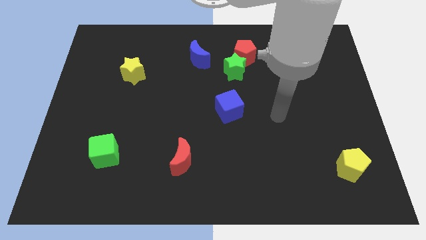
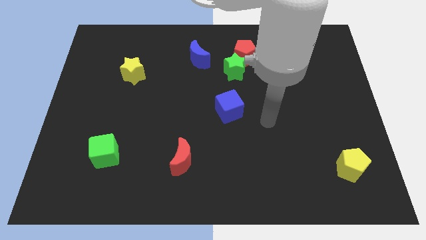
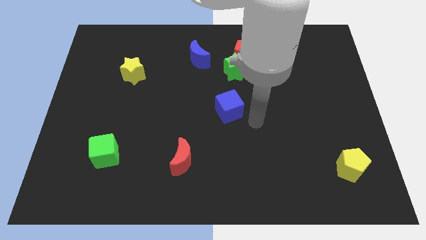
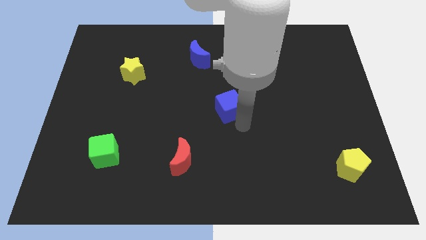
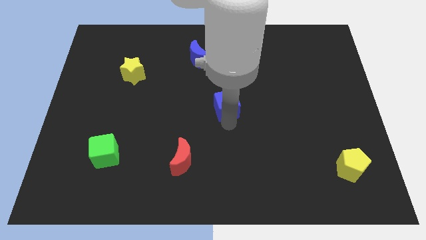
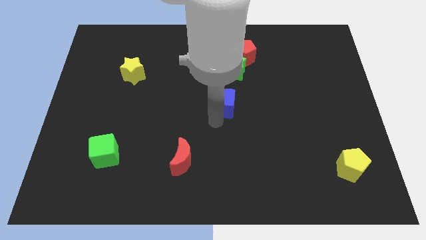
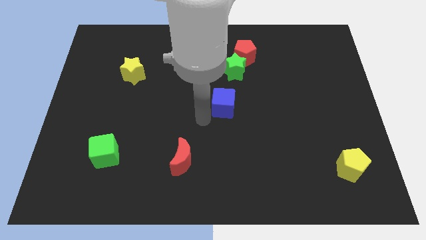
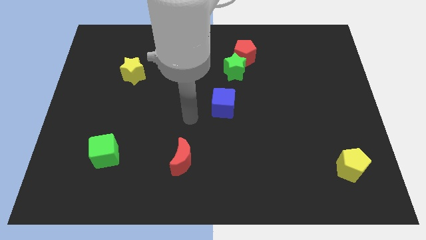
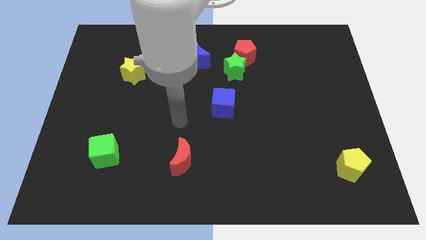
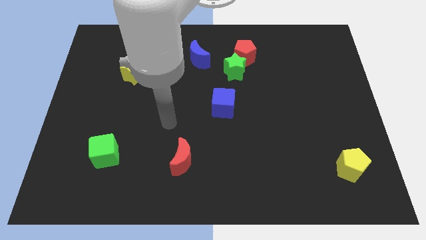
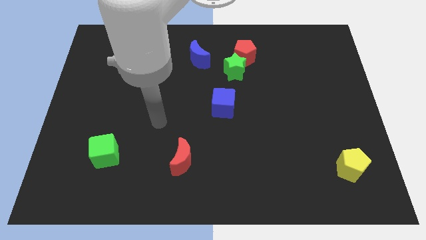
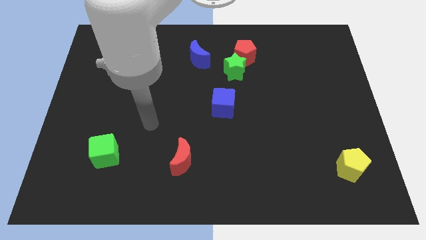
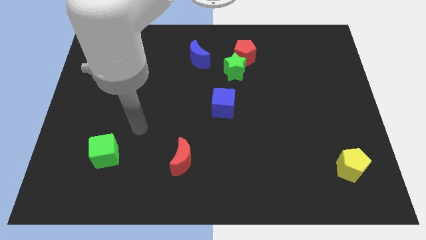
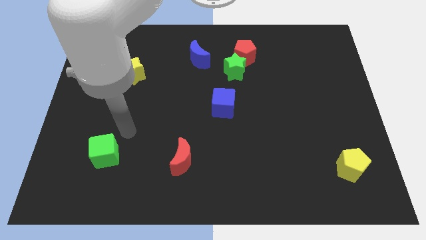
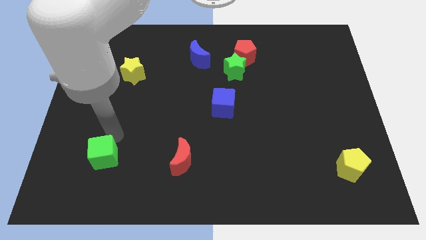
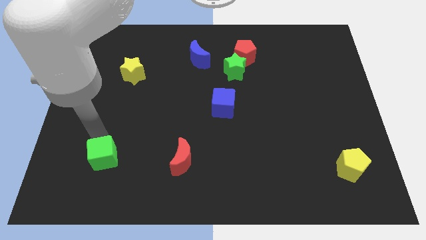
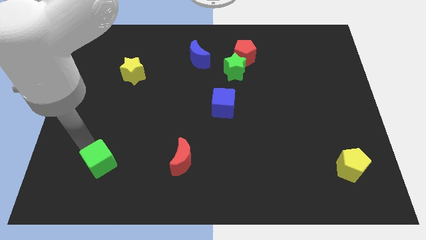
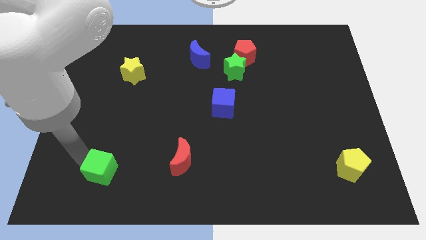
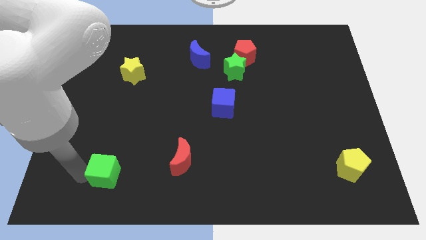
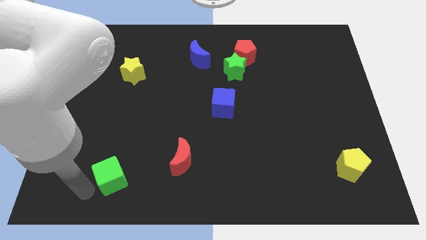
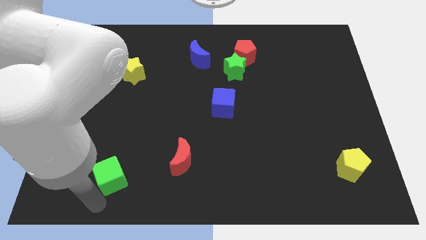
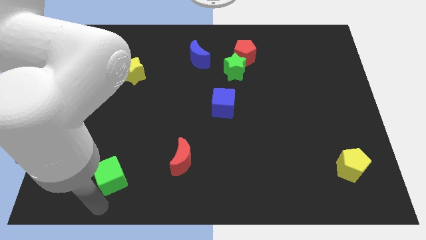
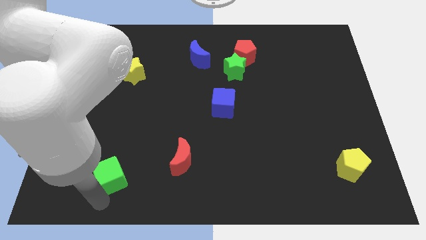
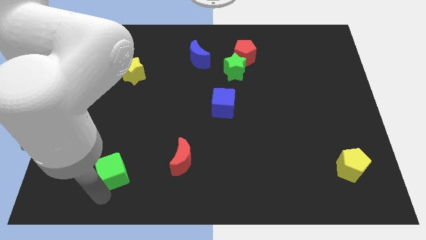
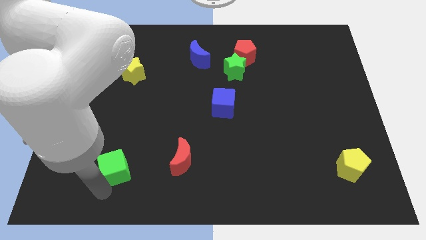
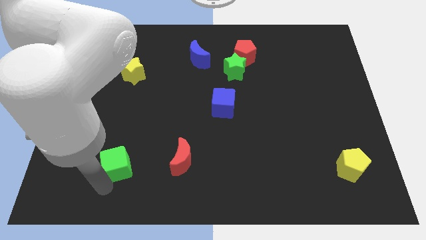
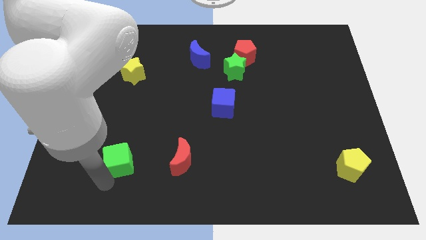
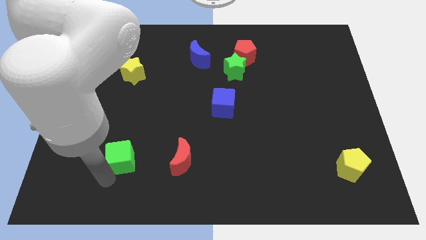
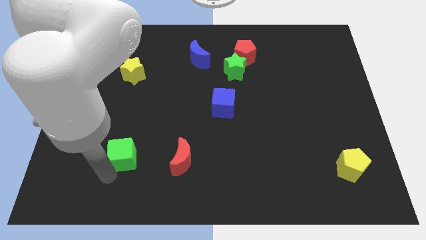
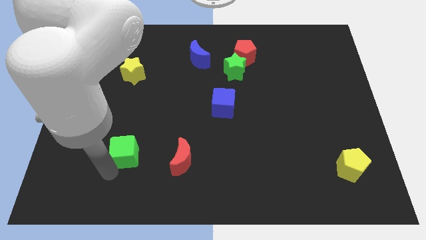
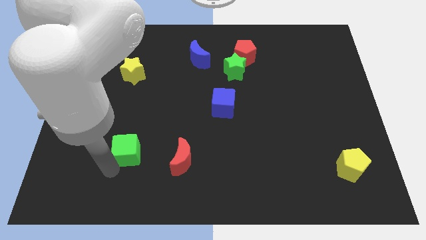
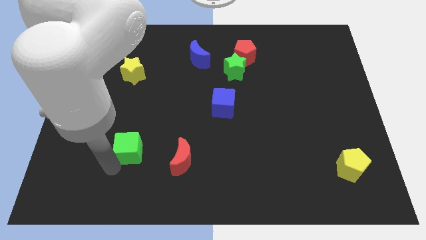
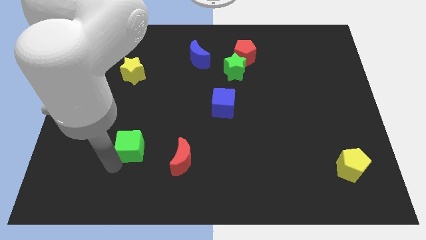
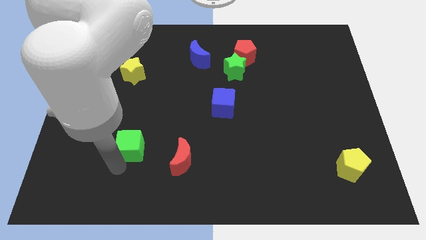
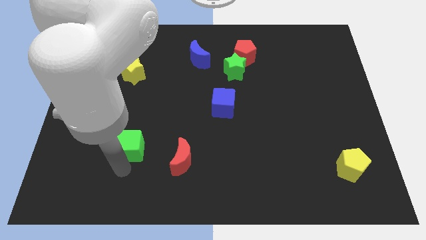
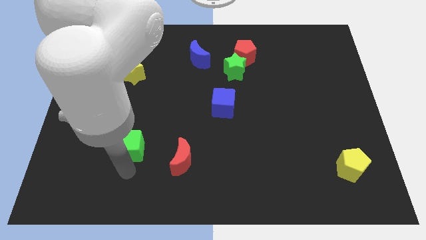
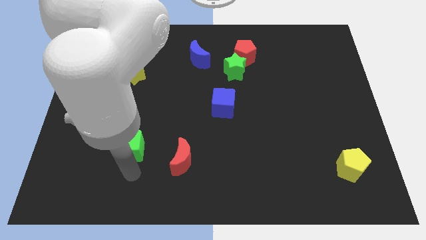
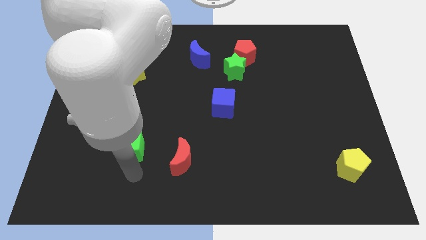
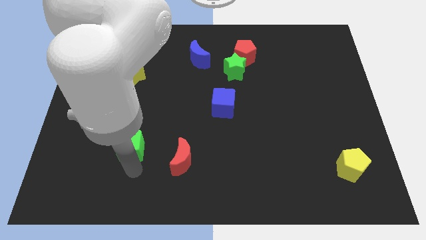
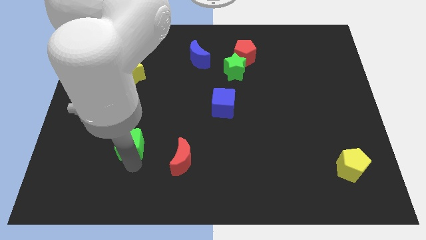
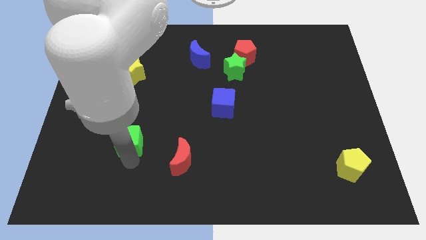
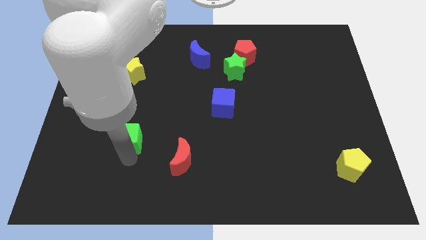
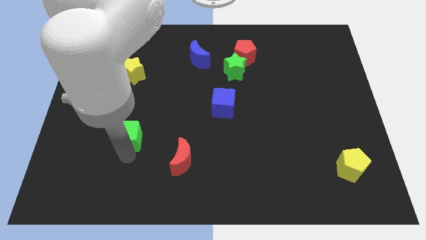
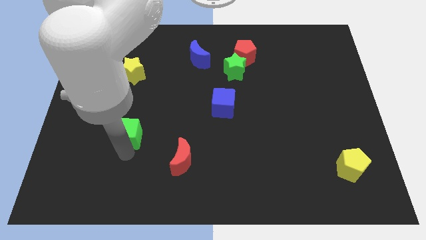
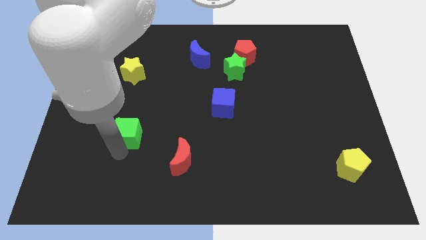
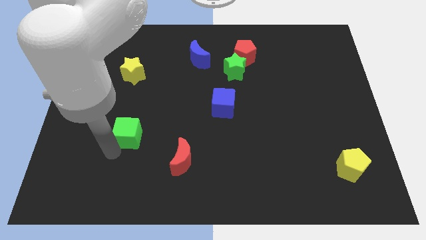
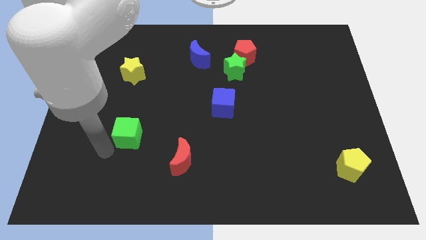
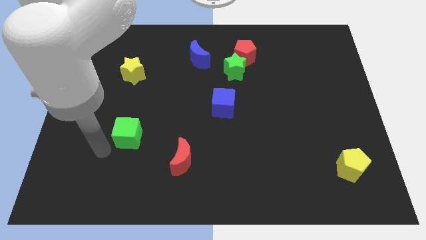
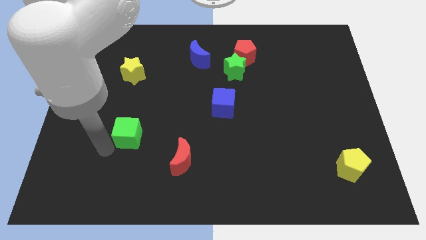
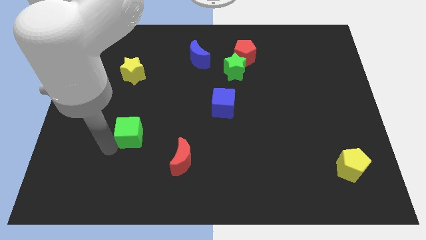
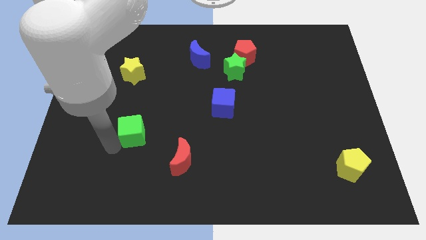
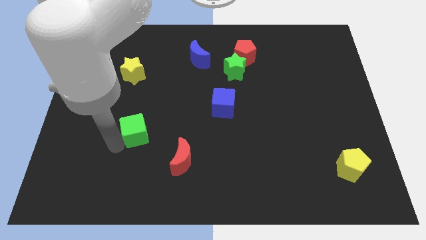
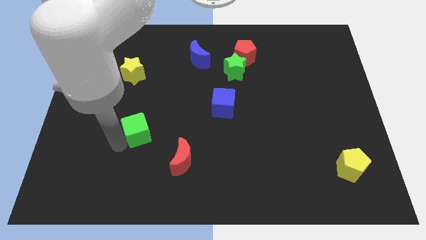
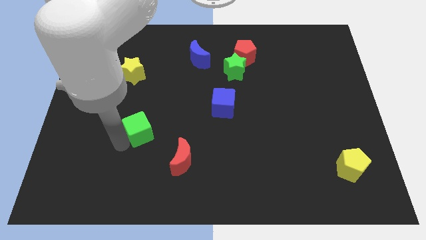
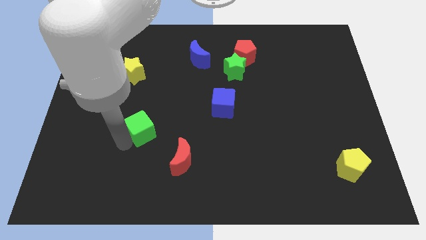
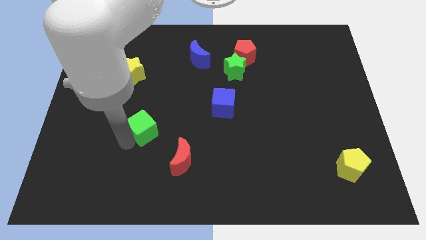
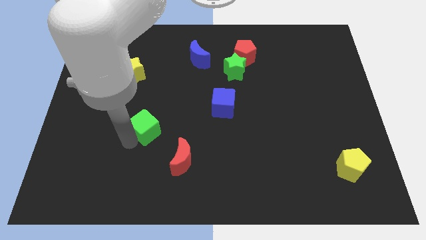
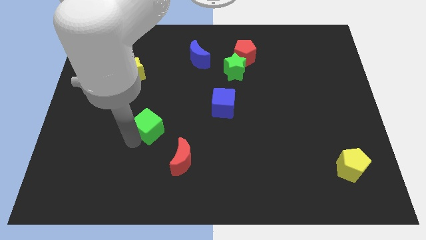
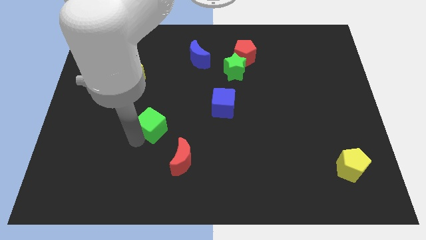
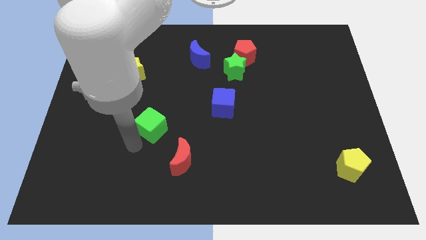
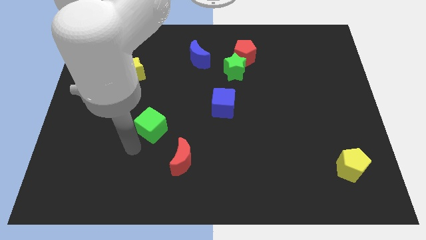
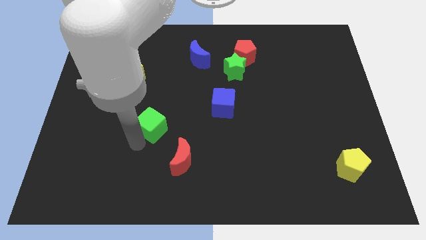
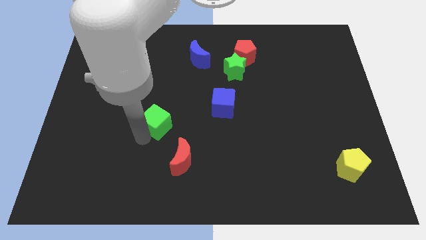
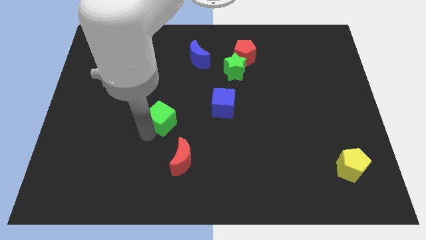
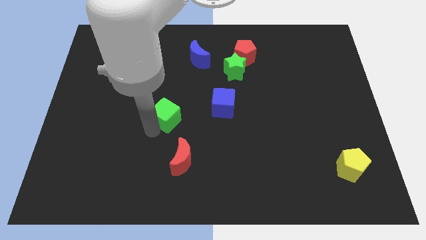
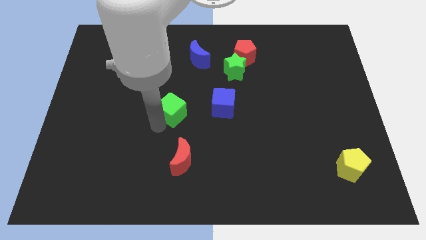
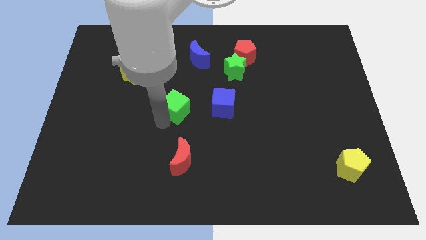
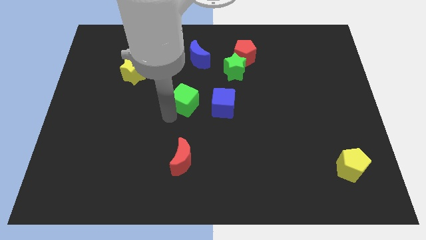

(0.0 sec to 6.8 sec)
move the green cube up and to the right diagonally

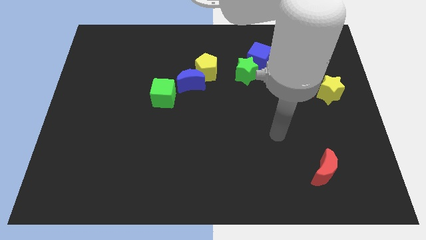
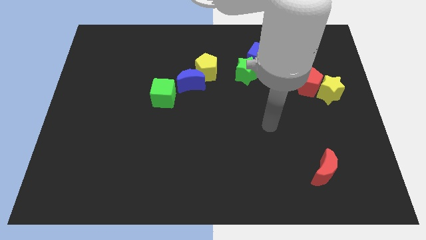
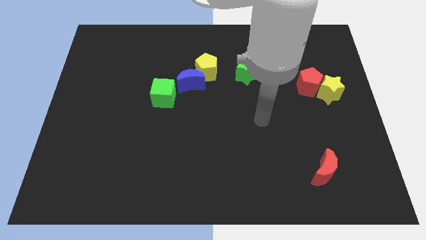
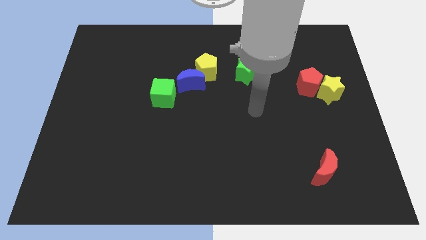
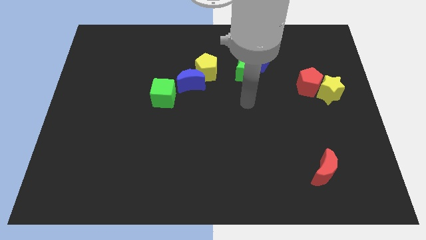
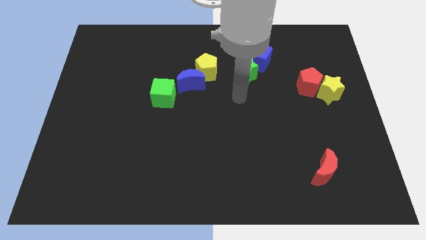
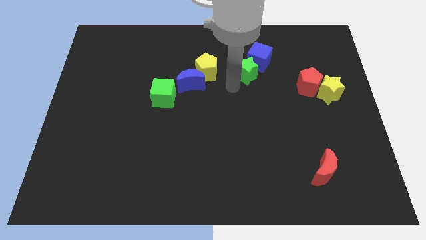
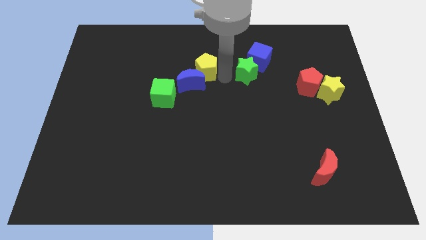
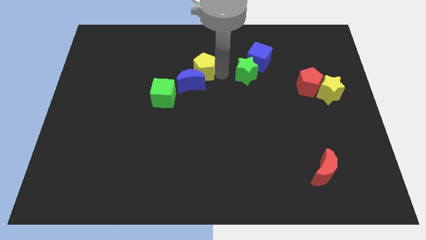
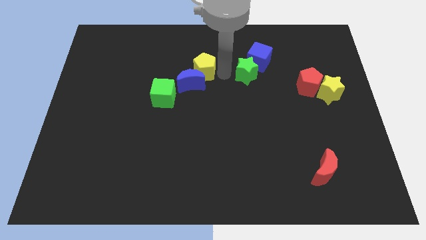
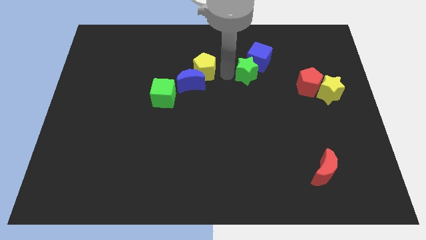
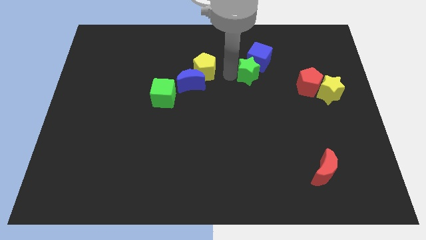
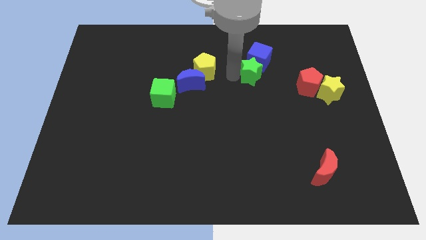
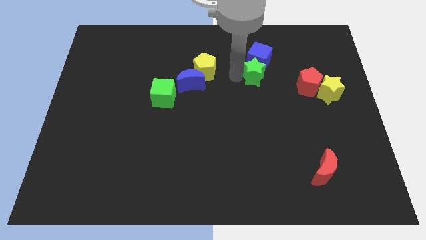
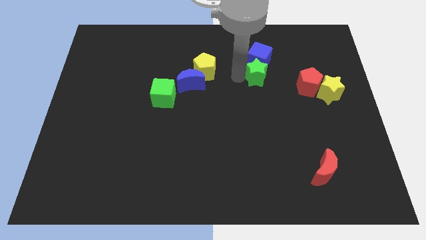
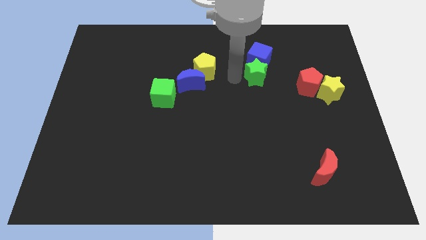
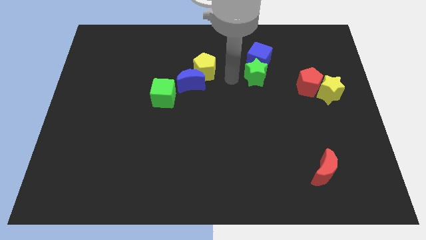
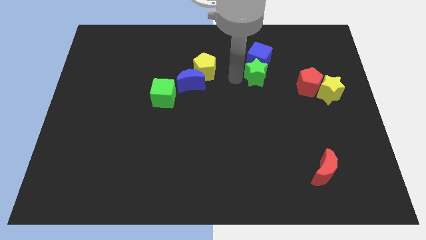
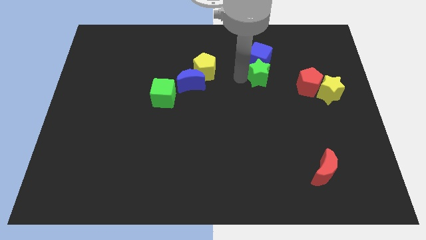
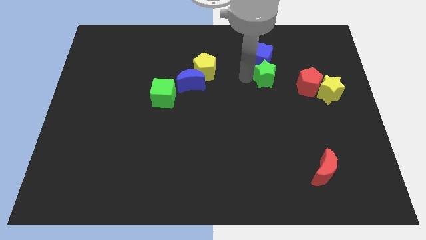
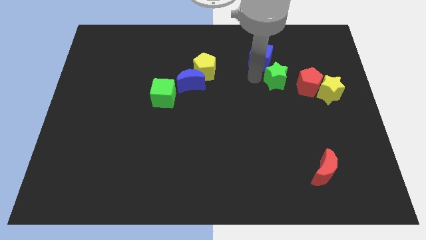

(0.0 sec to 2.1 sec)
slide the green star right a bit
